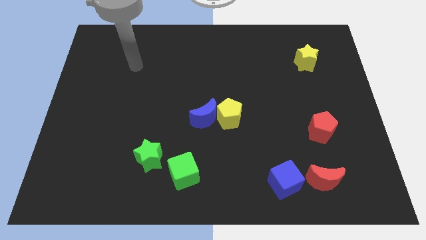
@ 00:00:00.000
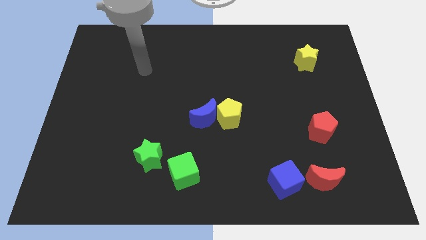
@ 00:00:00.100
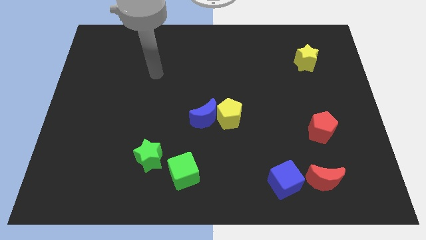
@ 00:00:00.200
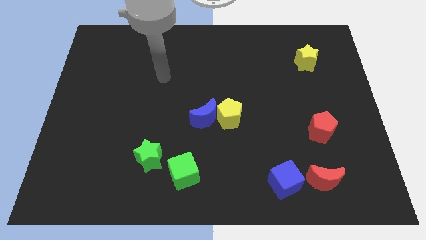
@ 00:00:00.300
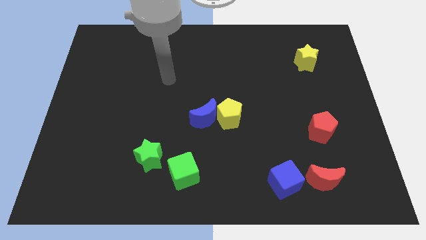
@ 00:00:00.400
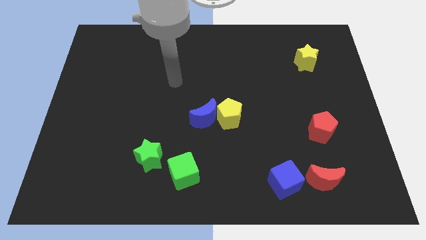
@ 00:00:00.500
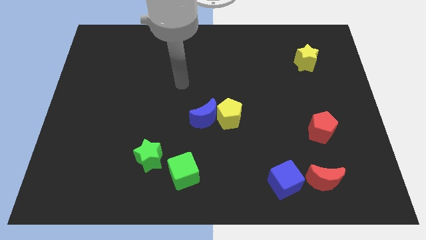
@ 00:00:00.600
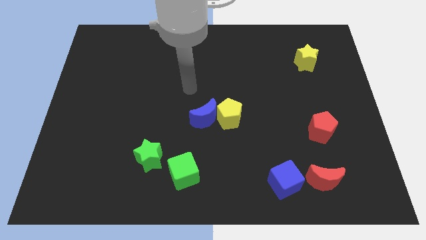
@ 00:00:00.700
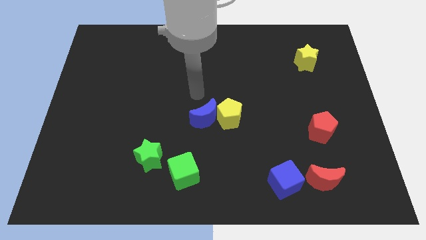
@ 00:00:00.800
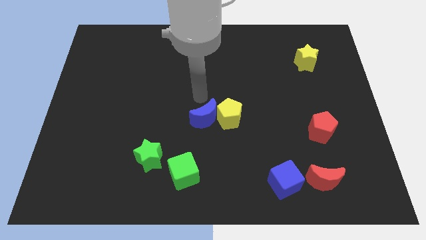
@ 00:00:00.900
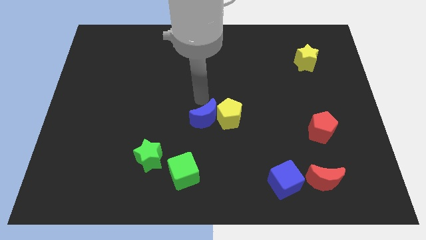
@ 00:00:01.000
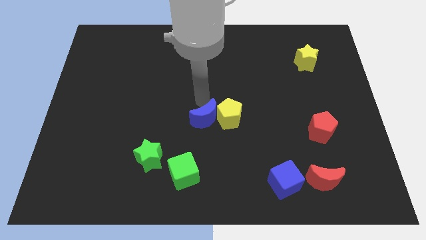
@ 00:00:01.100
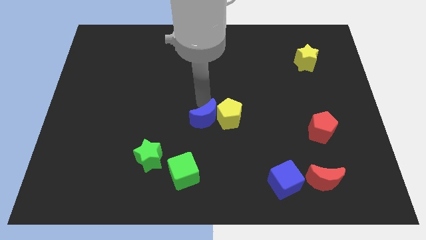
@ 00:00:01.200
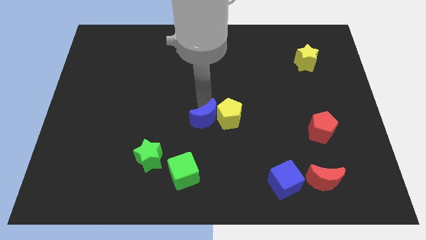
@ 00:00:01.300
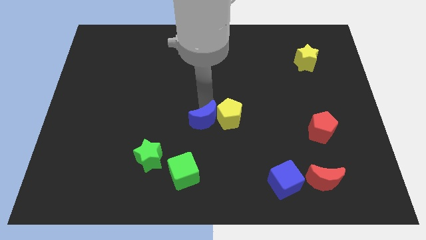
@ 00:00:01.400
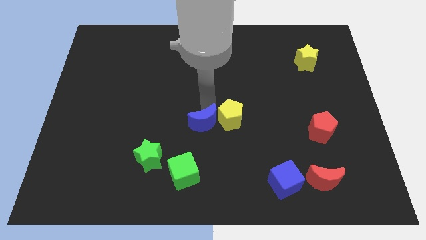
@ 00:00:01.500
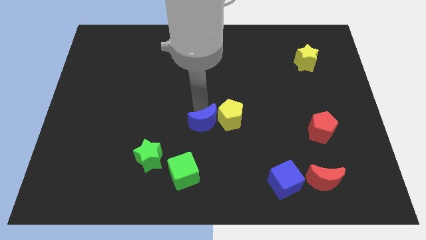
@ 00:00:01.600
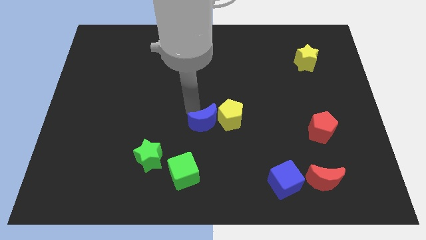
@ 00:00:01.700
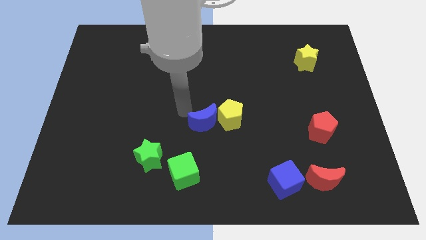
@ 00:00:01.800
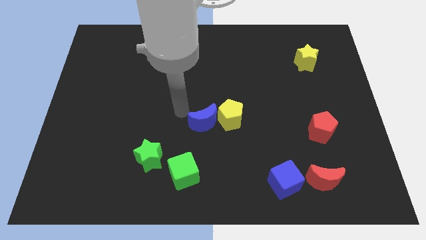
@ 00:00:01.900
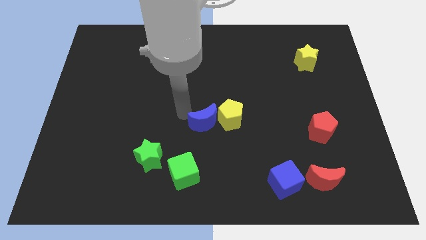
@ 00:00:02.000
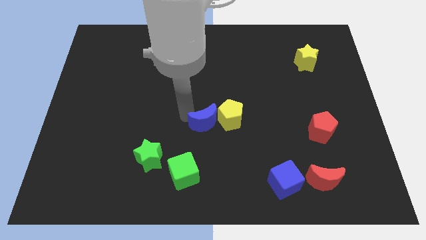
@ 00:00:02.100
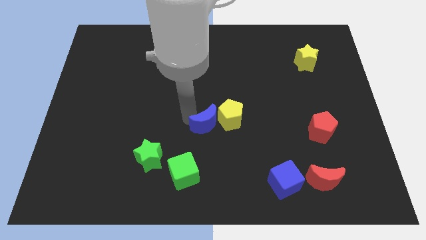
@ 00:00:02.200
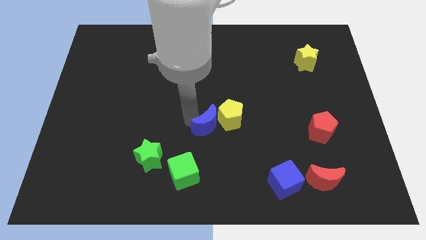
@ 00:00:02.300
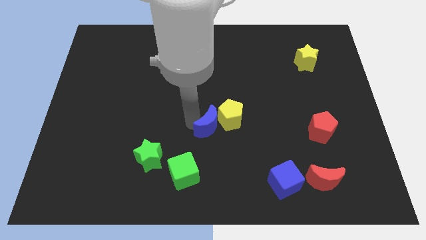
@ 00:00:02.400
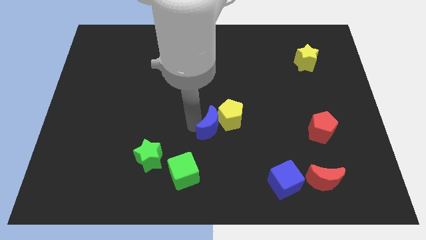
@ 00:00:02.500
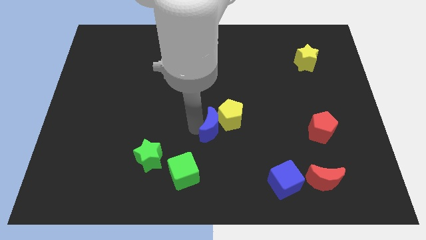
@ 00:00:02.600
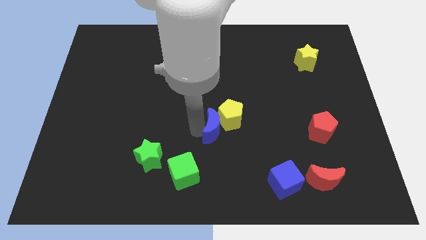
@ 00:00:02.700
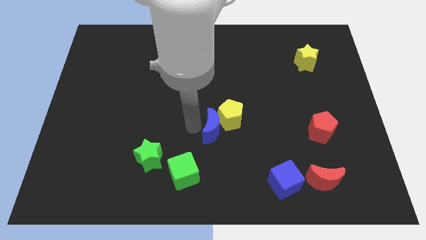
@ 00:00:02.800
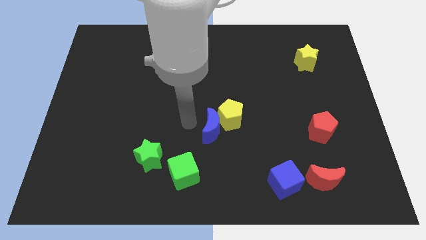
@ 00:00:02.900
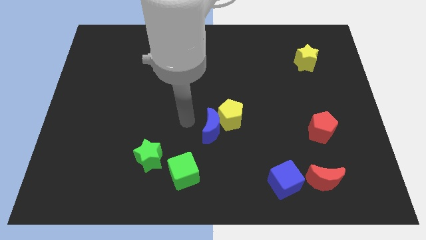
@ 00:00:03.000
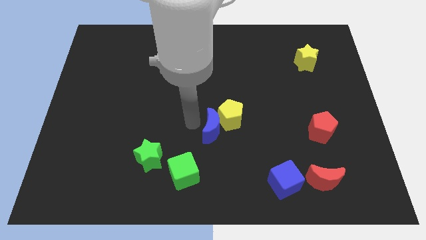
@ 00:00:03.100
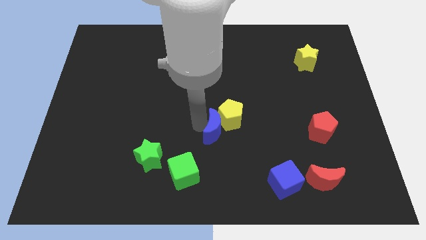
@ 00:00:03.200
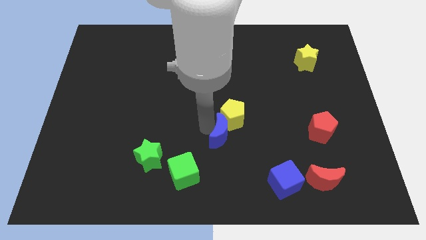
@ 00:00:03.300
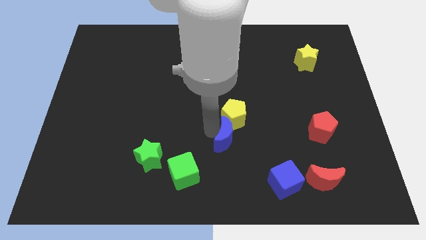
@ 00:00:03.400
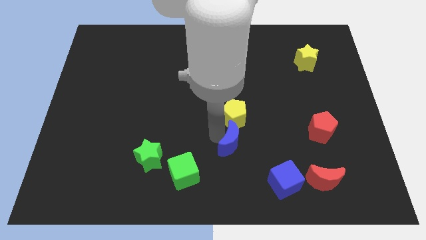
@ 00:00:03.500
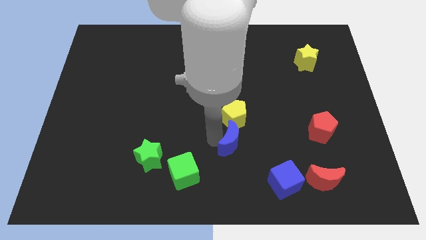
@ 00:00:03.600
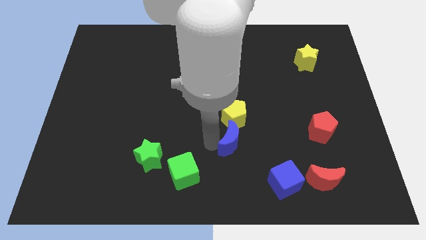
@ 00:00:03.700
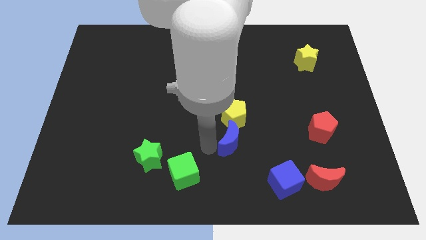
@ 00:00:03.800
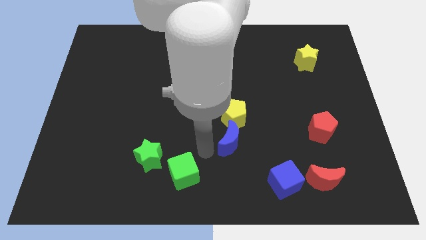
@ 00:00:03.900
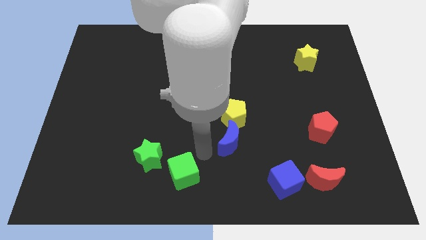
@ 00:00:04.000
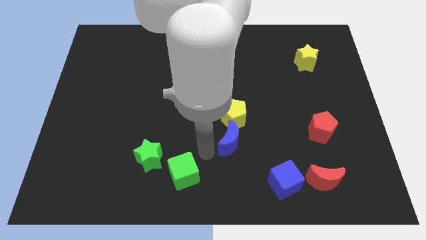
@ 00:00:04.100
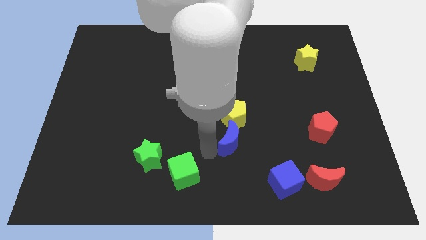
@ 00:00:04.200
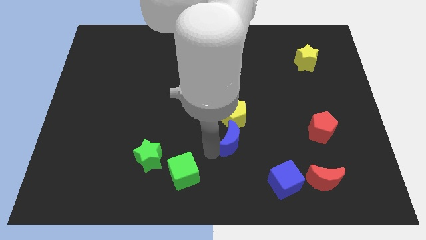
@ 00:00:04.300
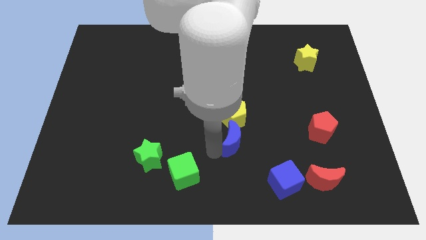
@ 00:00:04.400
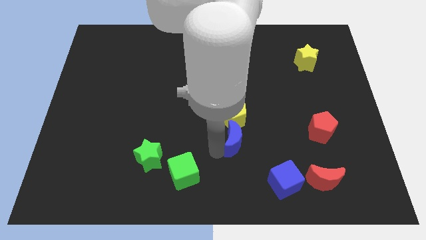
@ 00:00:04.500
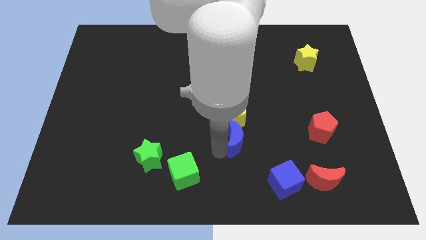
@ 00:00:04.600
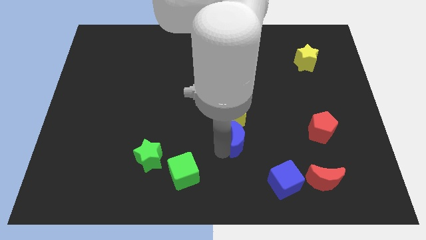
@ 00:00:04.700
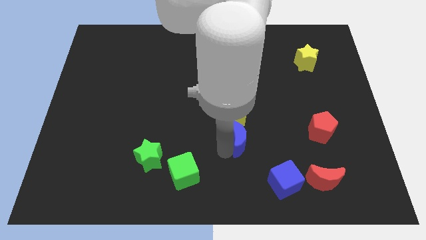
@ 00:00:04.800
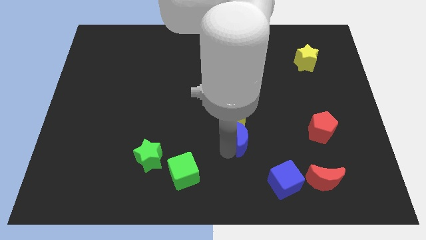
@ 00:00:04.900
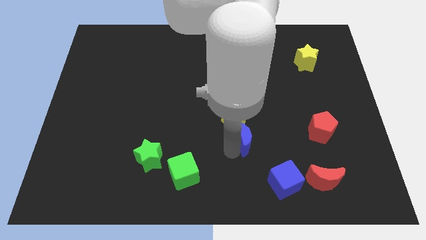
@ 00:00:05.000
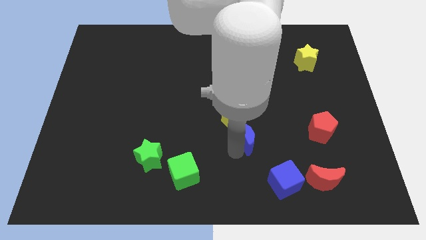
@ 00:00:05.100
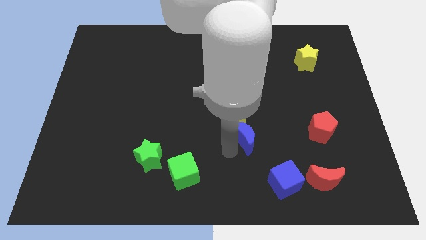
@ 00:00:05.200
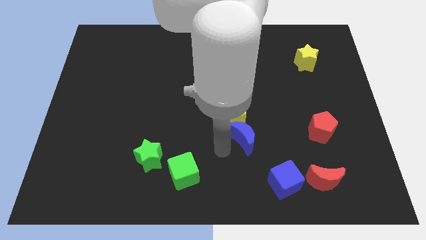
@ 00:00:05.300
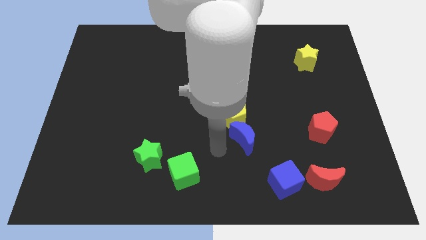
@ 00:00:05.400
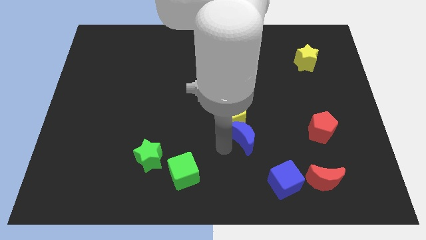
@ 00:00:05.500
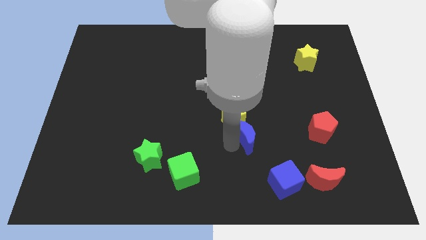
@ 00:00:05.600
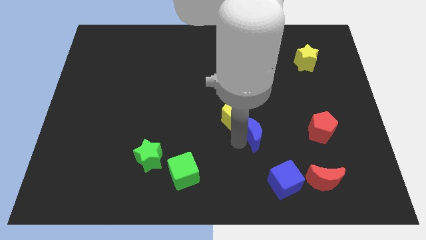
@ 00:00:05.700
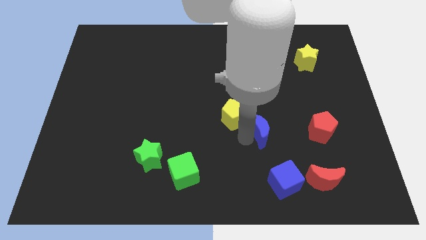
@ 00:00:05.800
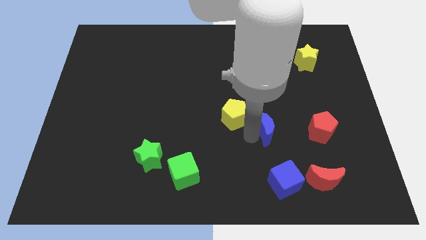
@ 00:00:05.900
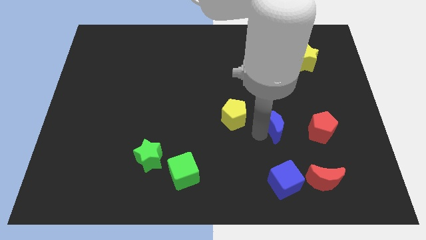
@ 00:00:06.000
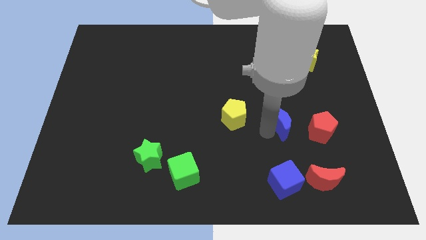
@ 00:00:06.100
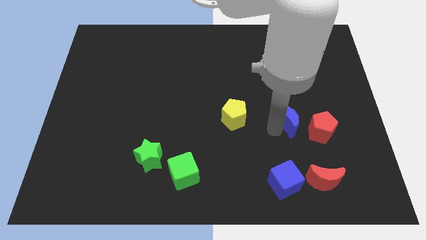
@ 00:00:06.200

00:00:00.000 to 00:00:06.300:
put the blue moon diagonally up and to the left of the red pentagon
